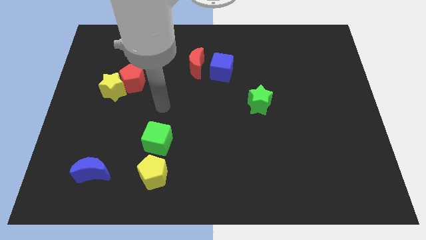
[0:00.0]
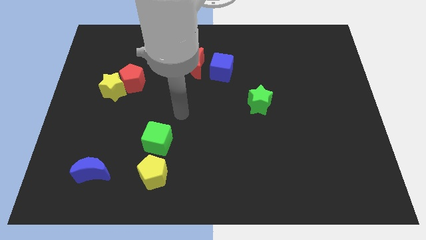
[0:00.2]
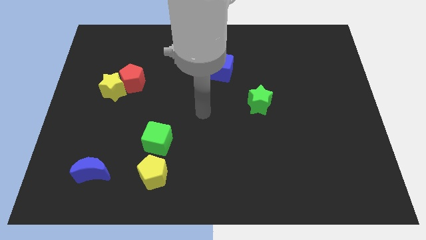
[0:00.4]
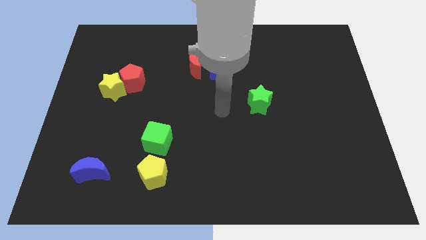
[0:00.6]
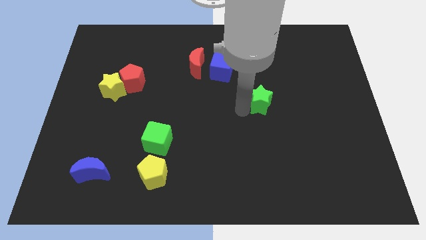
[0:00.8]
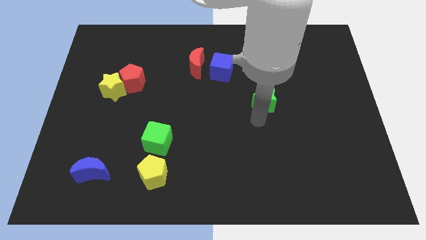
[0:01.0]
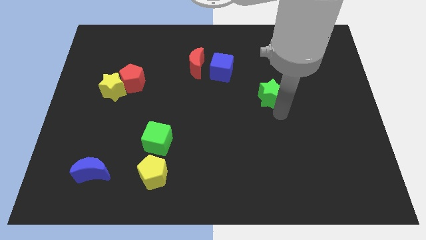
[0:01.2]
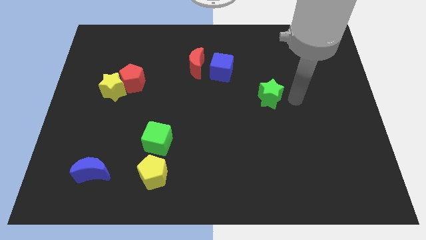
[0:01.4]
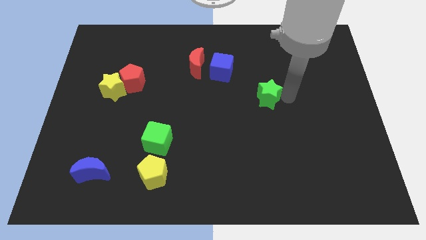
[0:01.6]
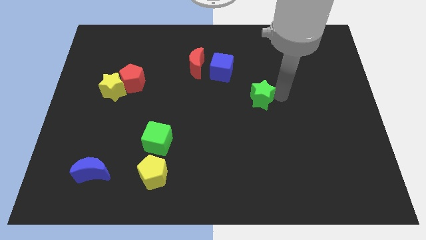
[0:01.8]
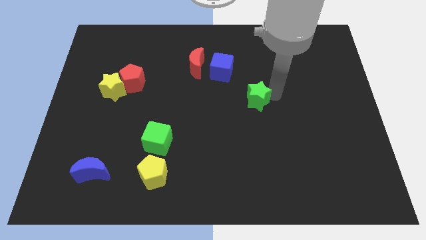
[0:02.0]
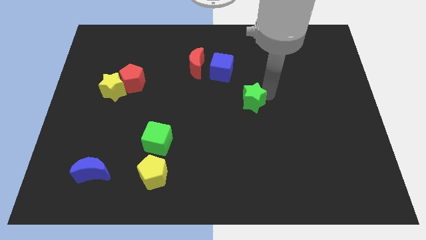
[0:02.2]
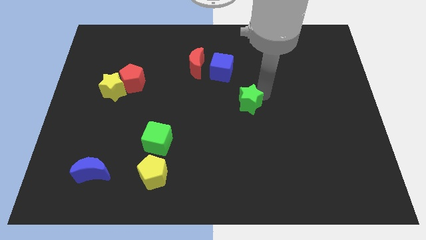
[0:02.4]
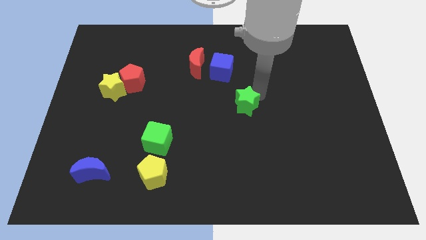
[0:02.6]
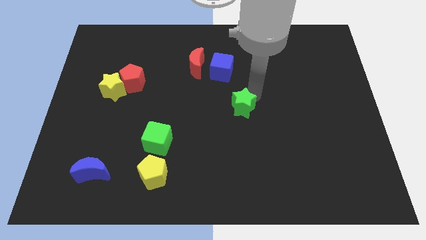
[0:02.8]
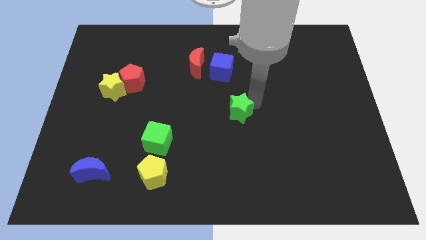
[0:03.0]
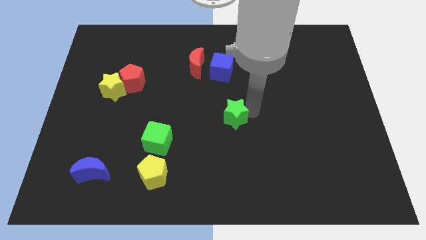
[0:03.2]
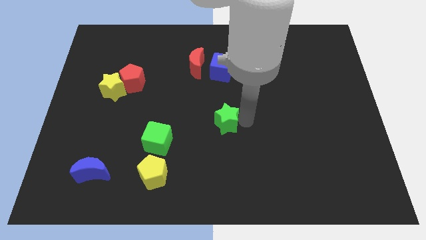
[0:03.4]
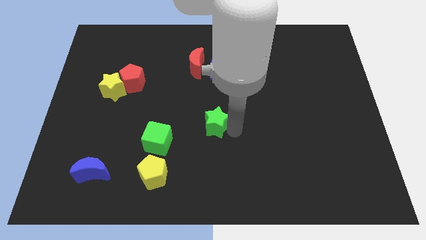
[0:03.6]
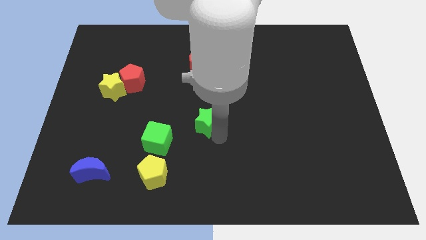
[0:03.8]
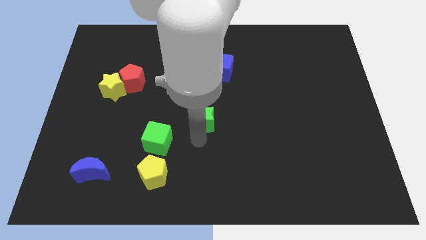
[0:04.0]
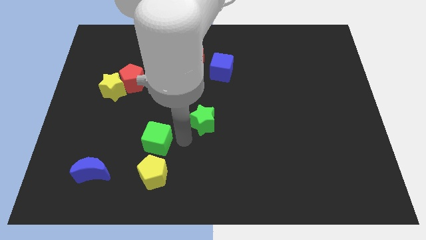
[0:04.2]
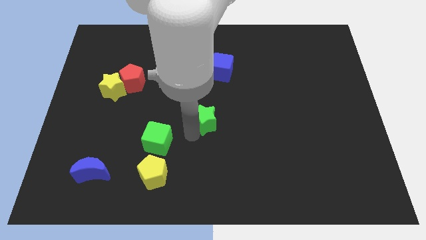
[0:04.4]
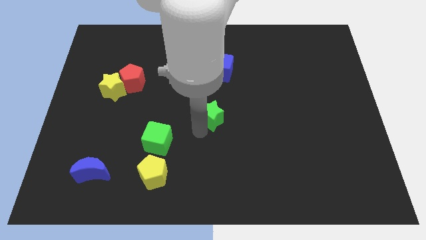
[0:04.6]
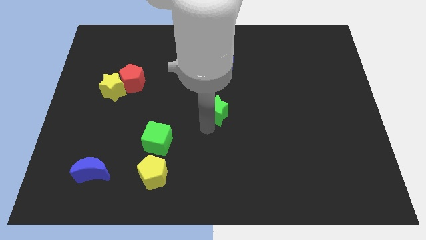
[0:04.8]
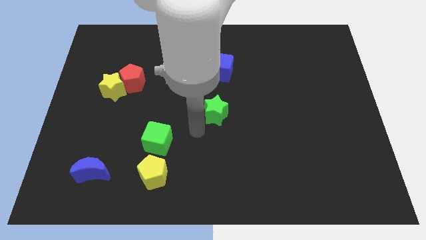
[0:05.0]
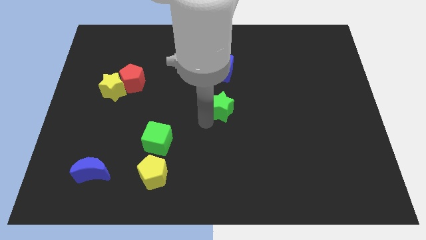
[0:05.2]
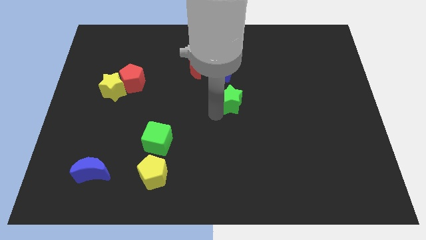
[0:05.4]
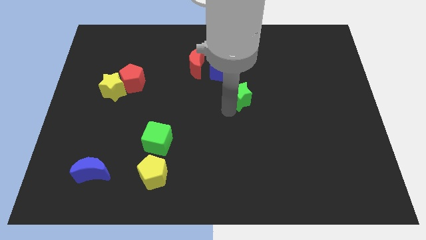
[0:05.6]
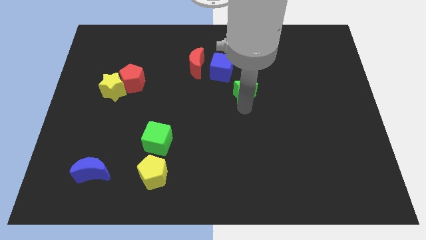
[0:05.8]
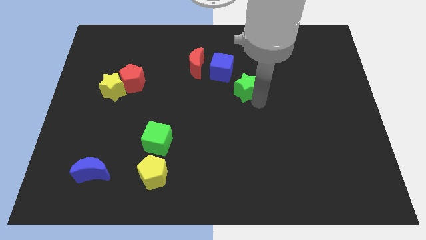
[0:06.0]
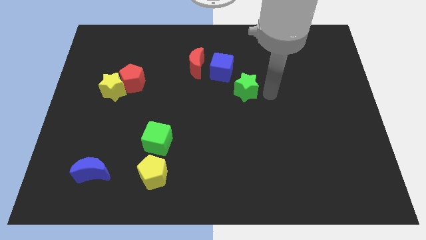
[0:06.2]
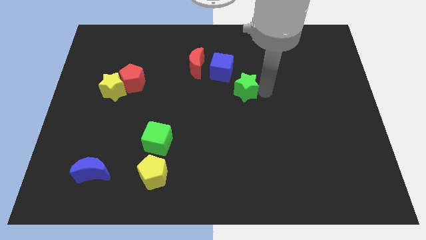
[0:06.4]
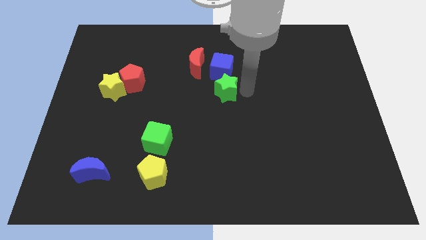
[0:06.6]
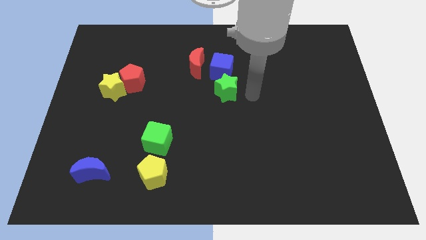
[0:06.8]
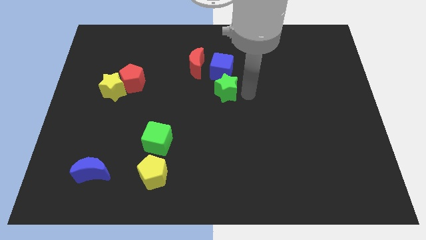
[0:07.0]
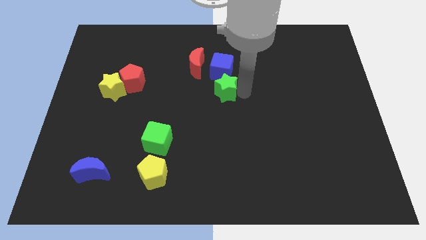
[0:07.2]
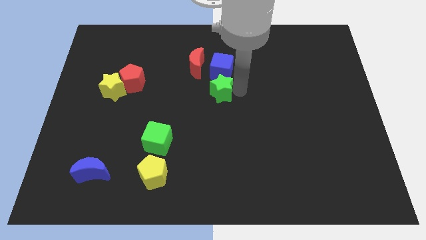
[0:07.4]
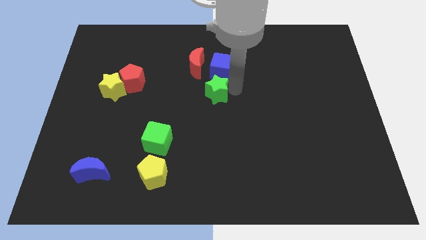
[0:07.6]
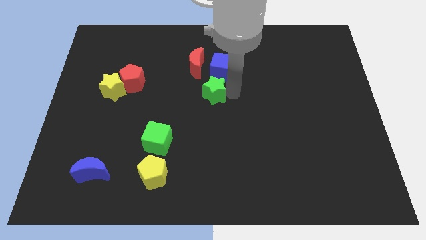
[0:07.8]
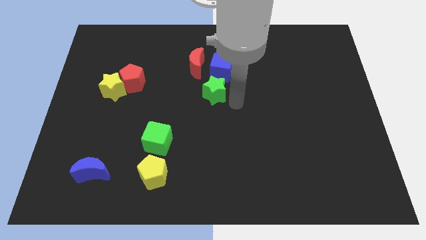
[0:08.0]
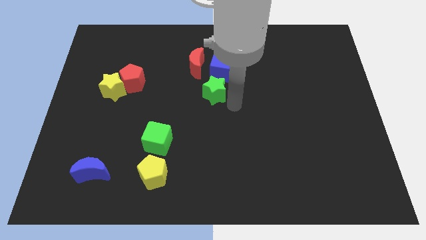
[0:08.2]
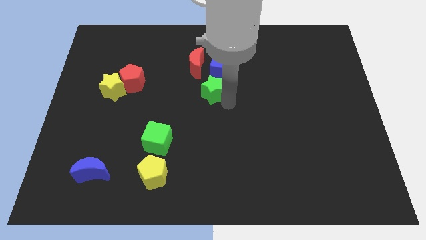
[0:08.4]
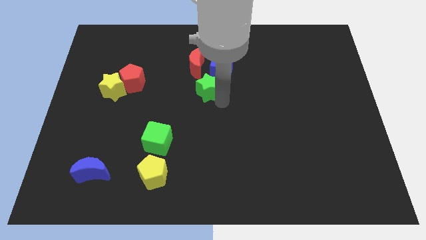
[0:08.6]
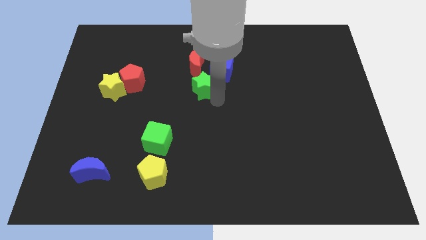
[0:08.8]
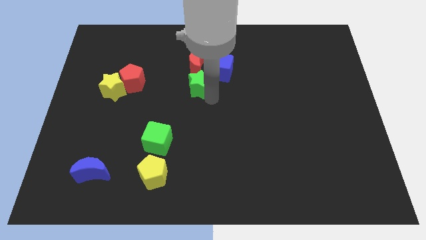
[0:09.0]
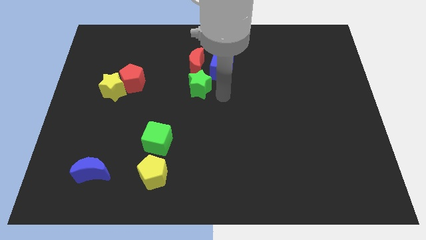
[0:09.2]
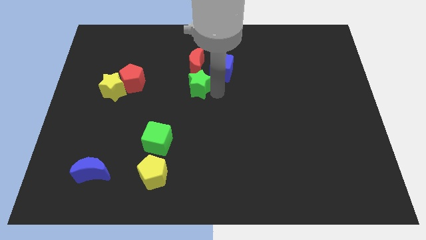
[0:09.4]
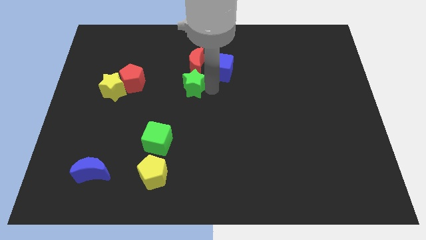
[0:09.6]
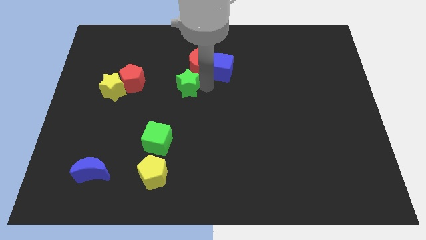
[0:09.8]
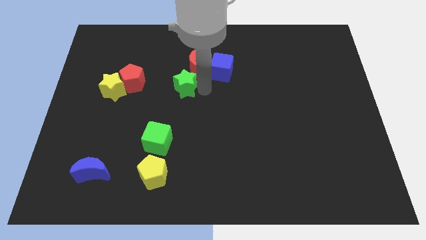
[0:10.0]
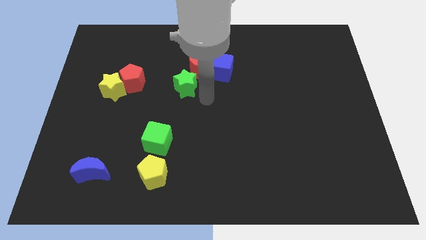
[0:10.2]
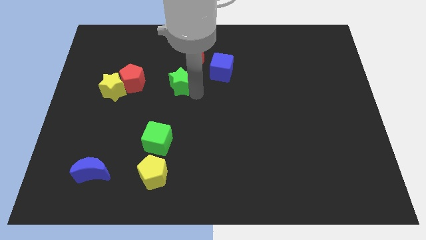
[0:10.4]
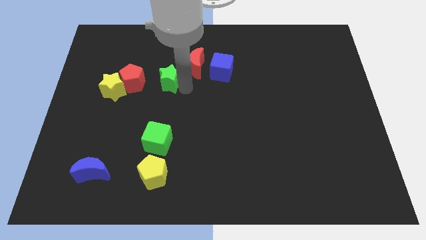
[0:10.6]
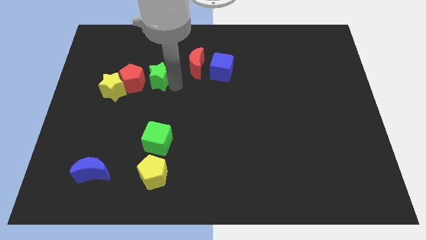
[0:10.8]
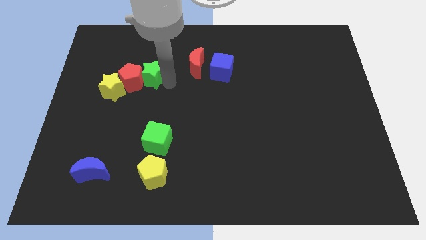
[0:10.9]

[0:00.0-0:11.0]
slide the green star to the top right of the yellow star

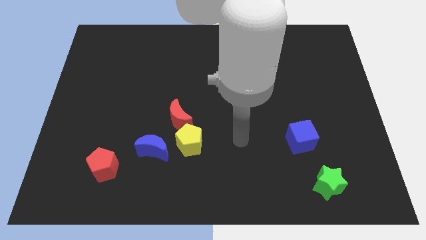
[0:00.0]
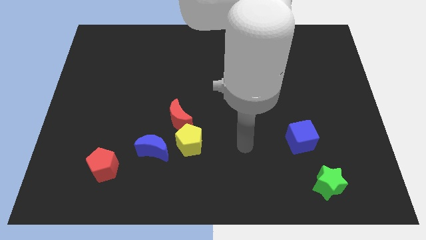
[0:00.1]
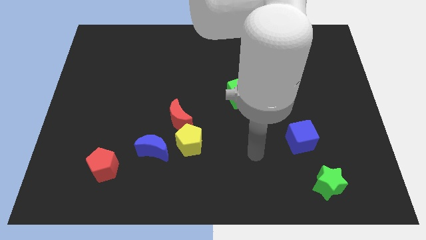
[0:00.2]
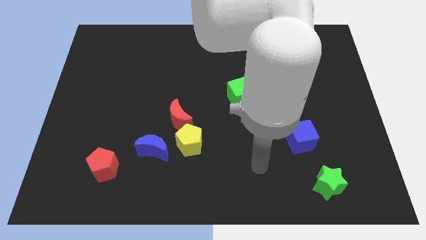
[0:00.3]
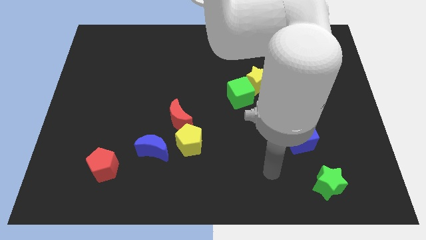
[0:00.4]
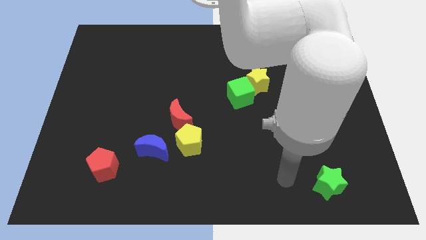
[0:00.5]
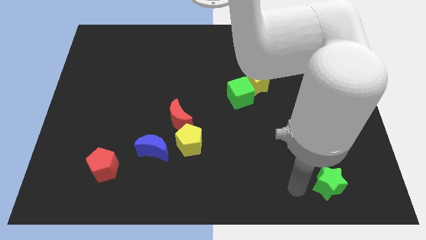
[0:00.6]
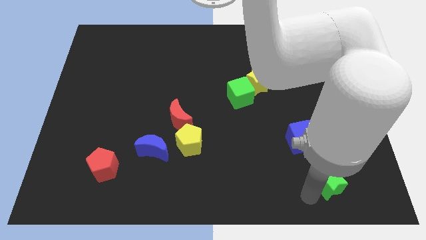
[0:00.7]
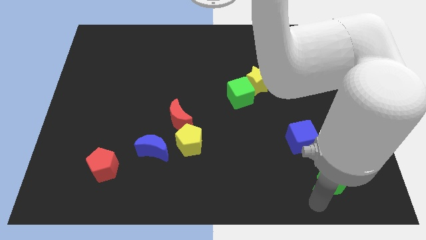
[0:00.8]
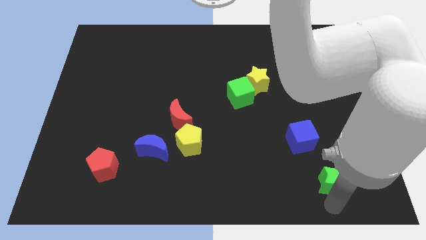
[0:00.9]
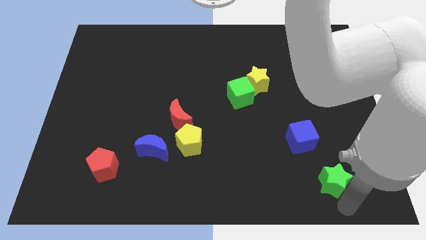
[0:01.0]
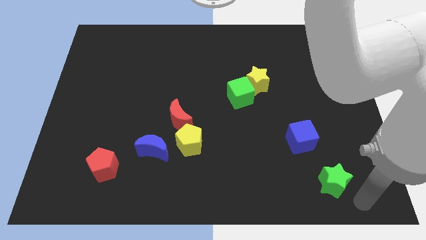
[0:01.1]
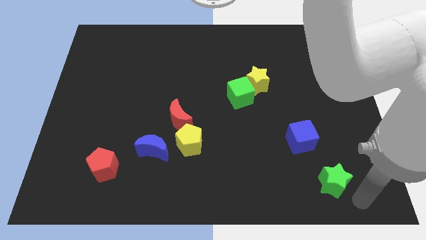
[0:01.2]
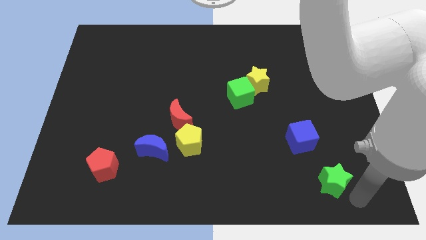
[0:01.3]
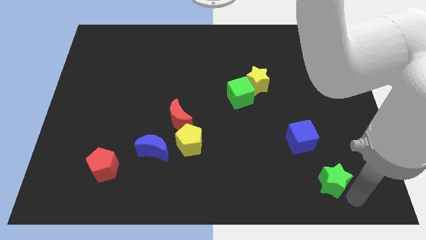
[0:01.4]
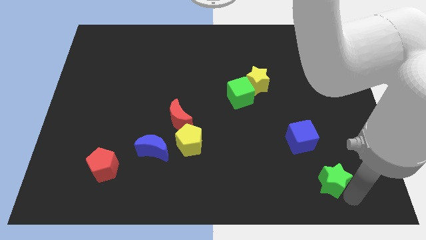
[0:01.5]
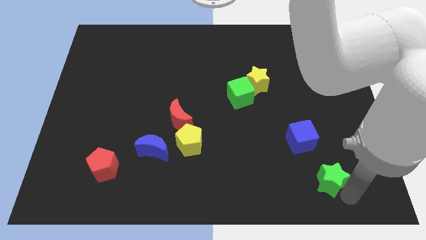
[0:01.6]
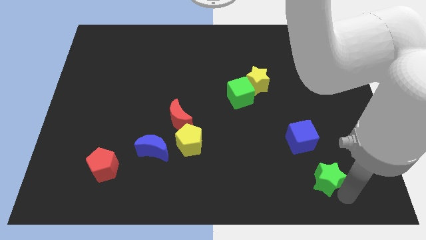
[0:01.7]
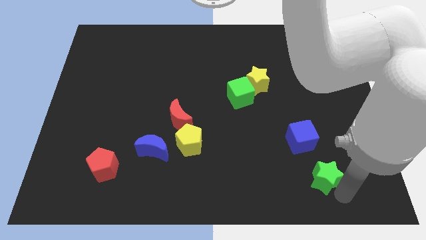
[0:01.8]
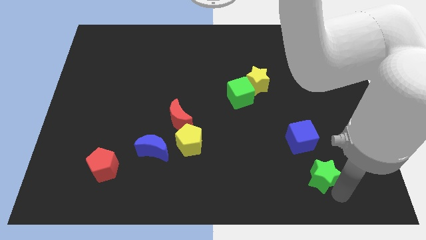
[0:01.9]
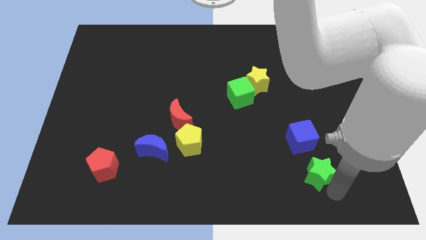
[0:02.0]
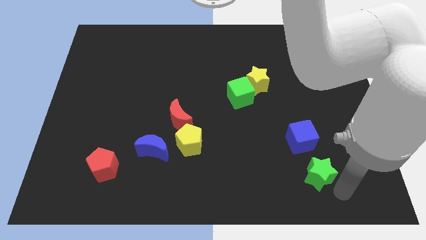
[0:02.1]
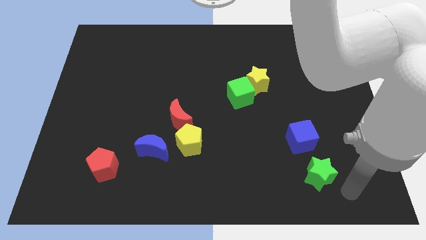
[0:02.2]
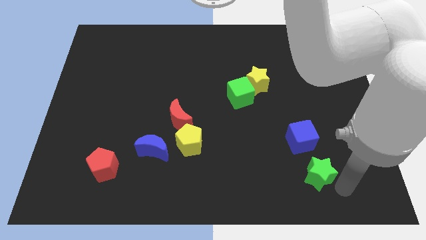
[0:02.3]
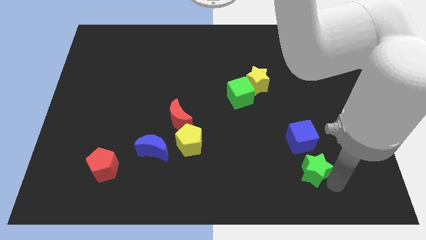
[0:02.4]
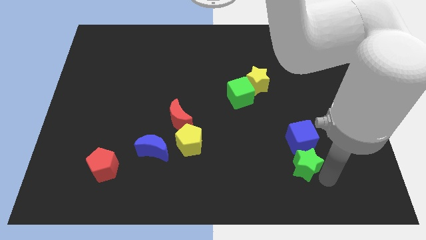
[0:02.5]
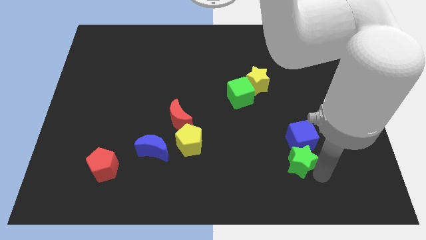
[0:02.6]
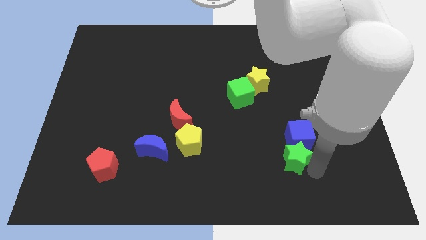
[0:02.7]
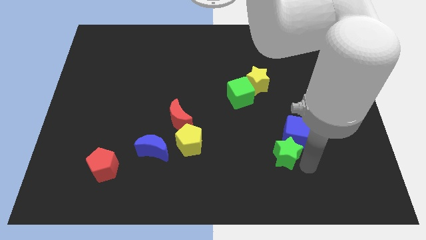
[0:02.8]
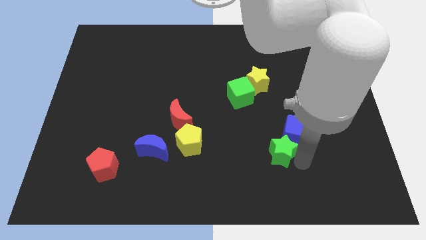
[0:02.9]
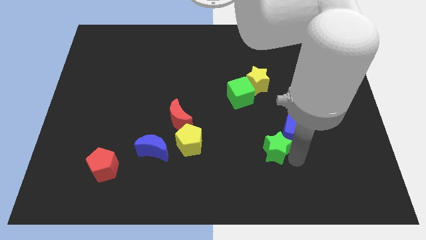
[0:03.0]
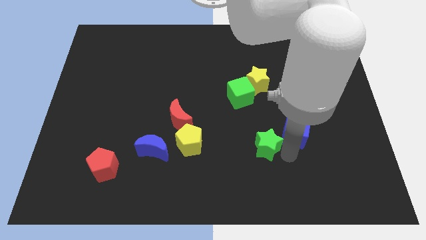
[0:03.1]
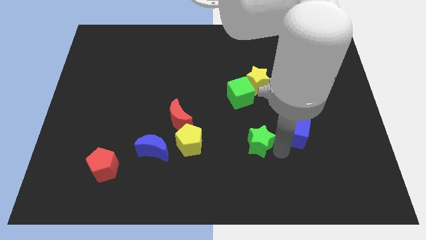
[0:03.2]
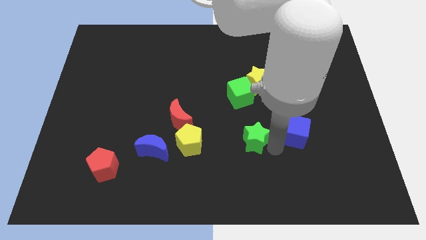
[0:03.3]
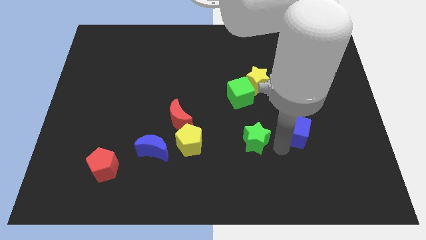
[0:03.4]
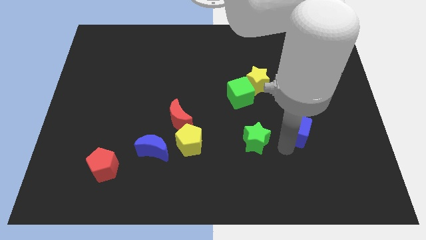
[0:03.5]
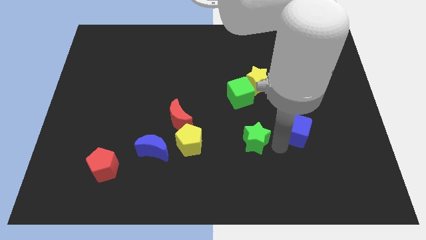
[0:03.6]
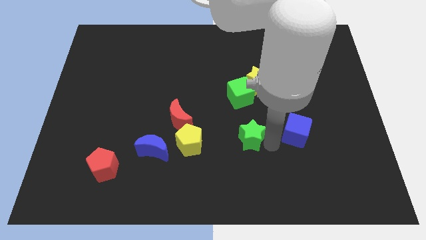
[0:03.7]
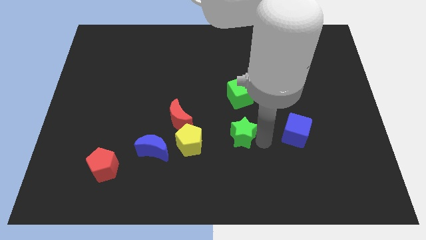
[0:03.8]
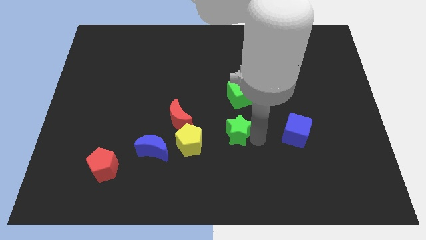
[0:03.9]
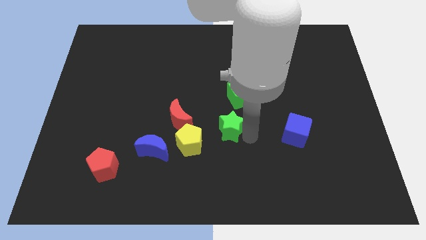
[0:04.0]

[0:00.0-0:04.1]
put the green star to the top right side of the yellow pentagon
